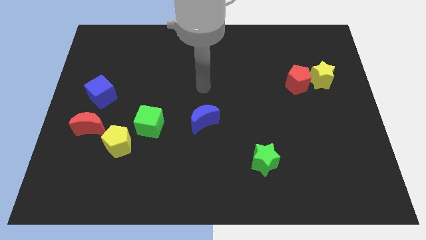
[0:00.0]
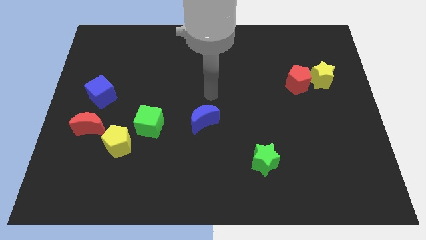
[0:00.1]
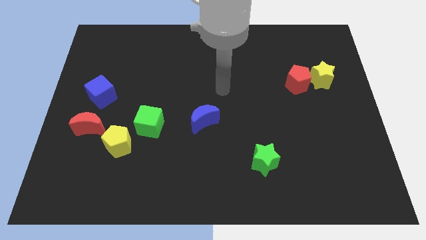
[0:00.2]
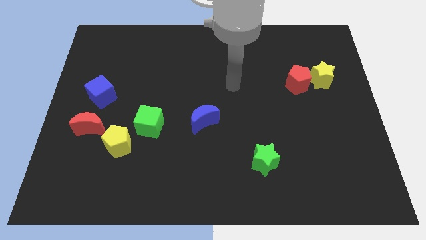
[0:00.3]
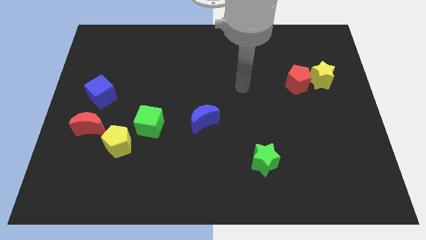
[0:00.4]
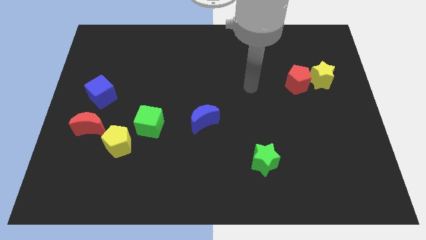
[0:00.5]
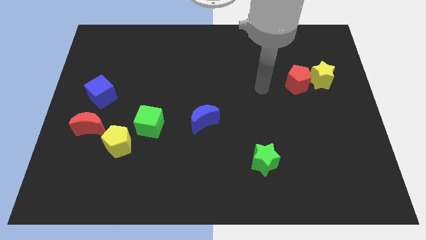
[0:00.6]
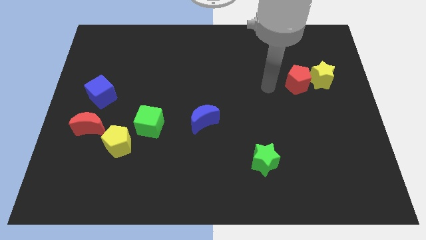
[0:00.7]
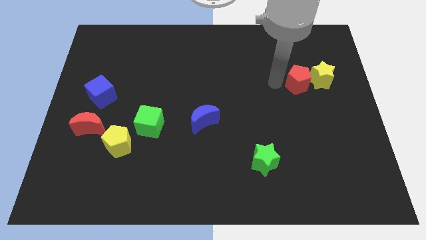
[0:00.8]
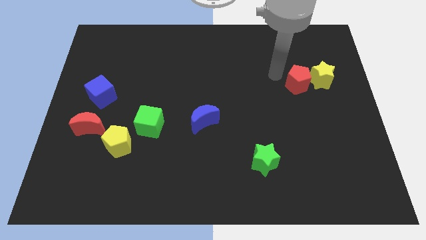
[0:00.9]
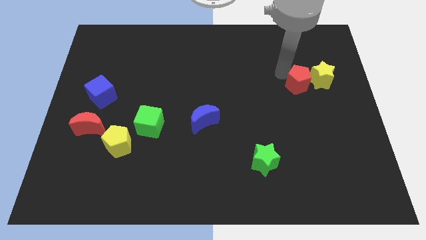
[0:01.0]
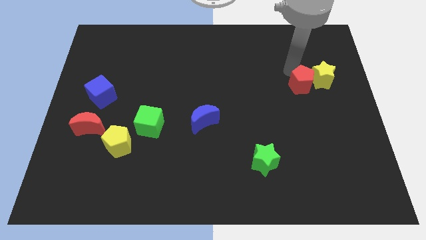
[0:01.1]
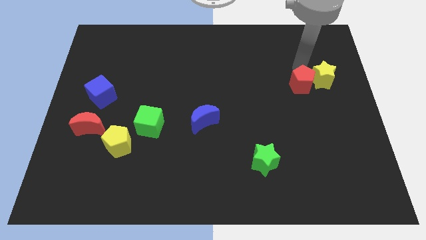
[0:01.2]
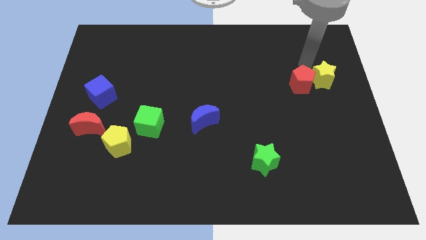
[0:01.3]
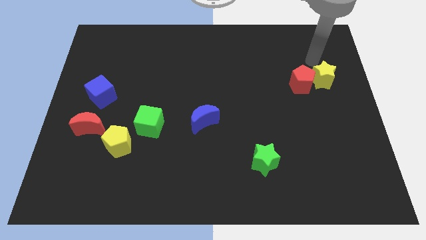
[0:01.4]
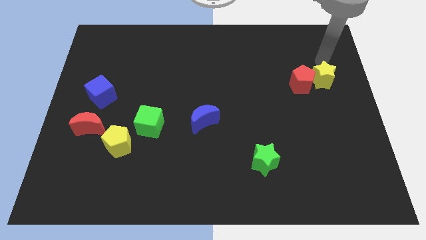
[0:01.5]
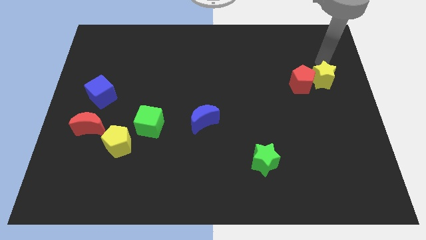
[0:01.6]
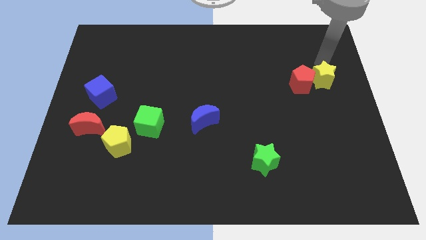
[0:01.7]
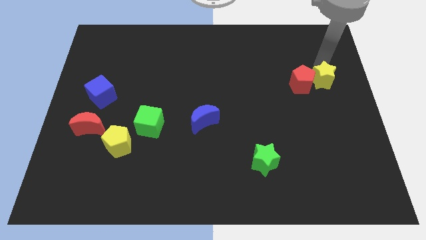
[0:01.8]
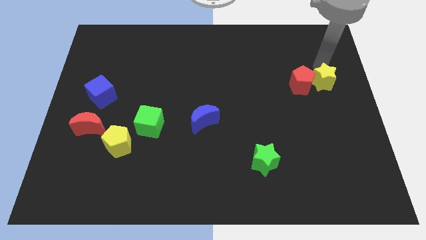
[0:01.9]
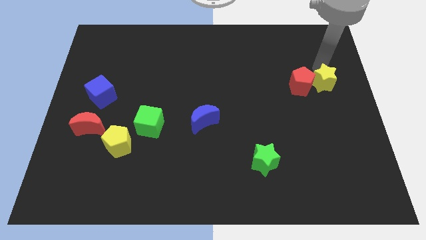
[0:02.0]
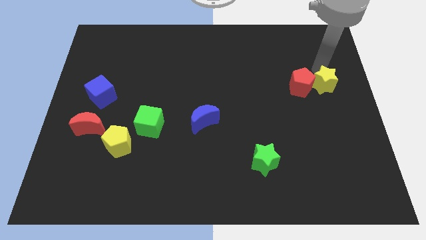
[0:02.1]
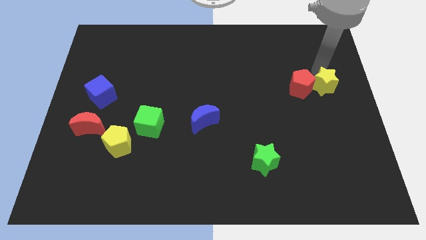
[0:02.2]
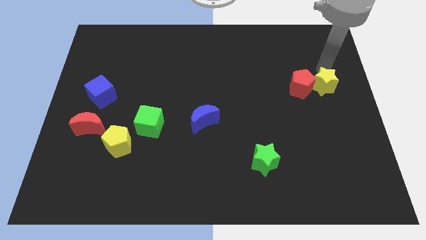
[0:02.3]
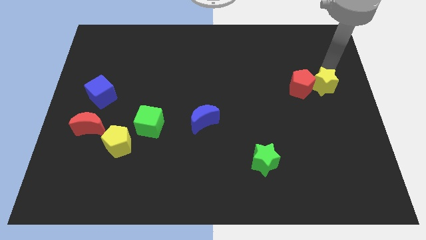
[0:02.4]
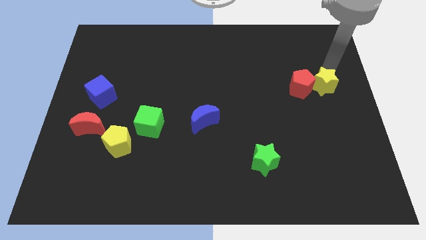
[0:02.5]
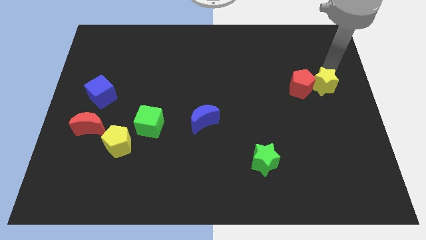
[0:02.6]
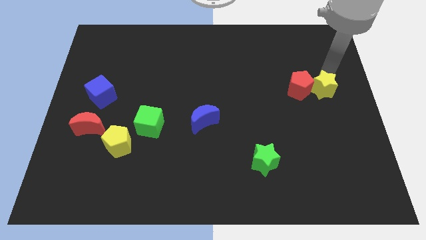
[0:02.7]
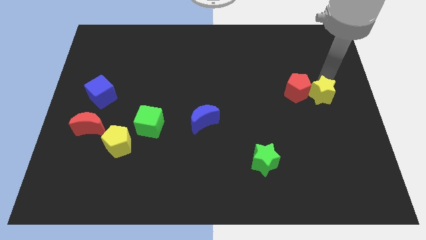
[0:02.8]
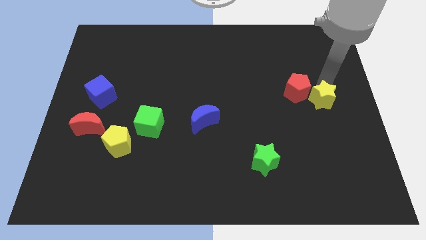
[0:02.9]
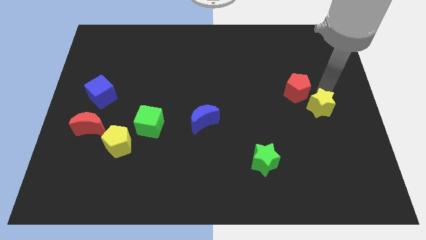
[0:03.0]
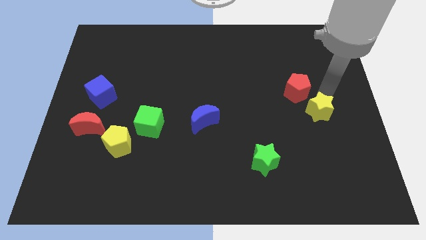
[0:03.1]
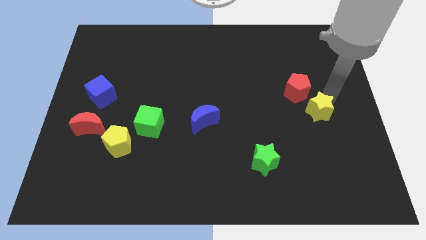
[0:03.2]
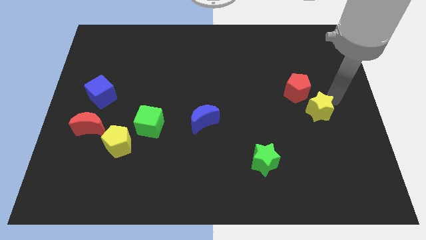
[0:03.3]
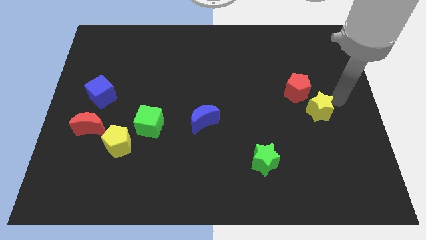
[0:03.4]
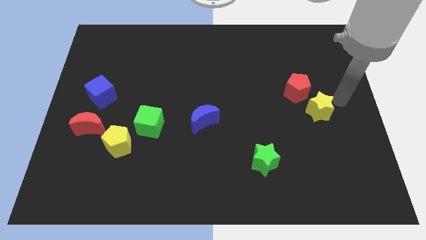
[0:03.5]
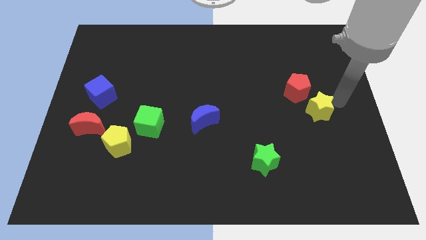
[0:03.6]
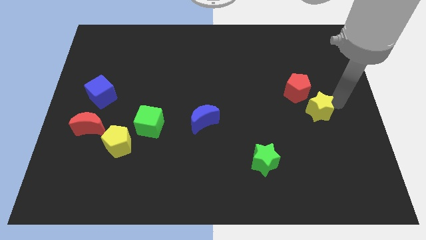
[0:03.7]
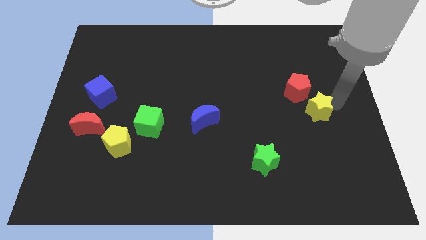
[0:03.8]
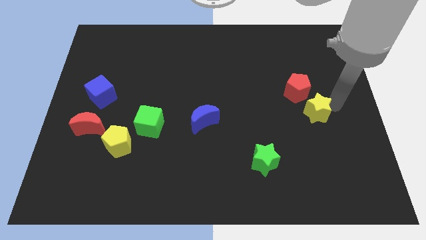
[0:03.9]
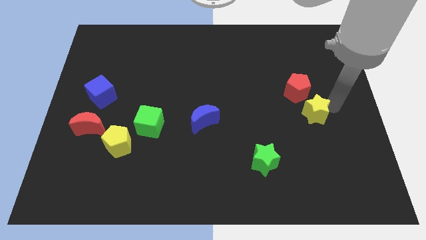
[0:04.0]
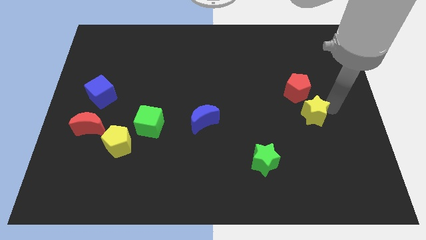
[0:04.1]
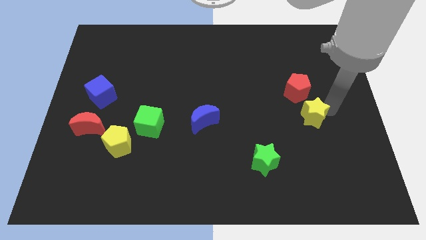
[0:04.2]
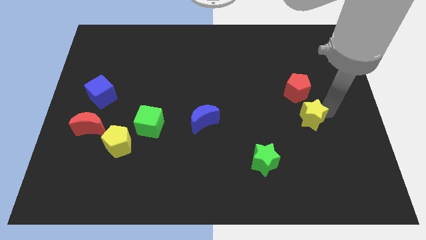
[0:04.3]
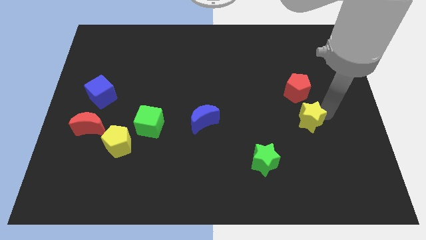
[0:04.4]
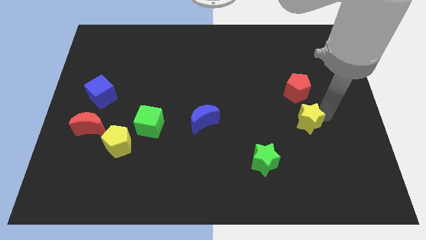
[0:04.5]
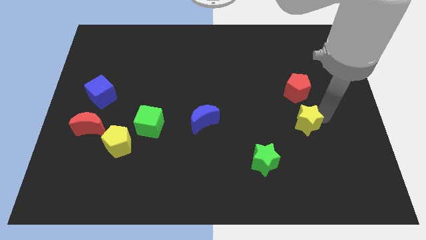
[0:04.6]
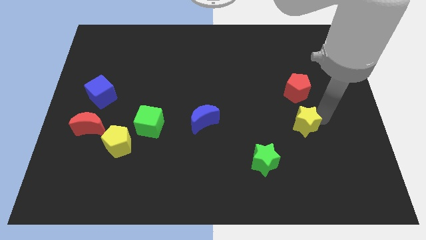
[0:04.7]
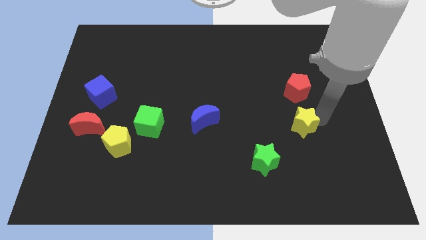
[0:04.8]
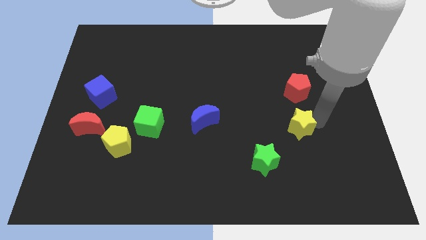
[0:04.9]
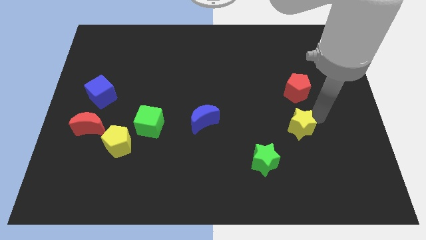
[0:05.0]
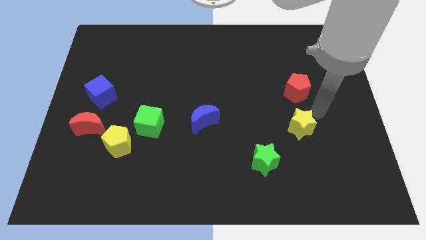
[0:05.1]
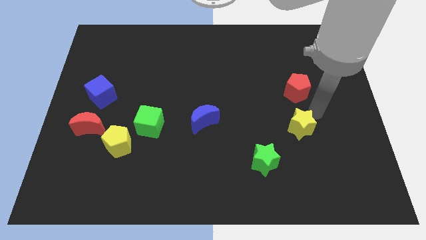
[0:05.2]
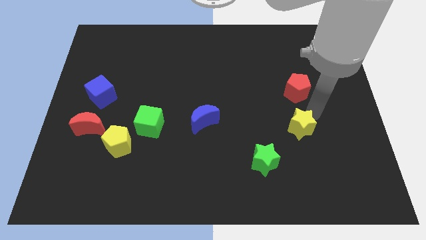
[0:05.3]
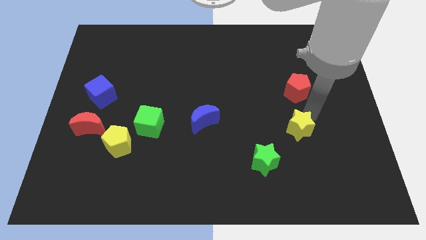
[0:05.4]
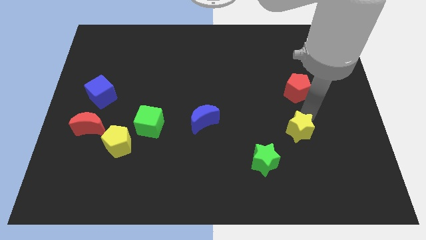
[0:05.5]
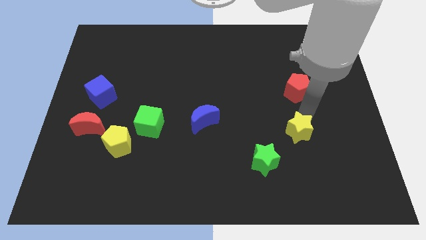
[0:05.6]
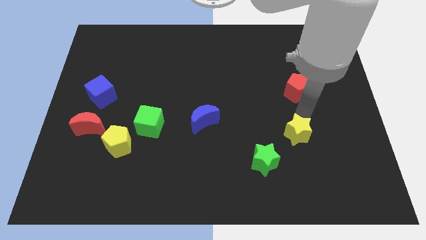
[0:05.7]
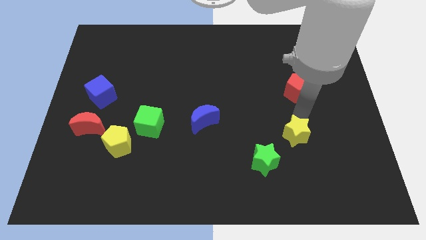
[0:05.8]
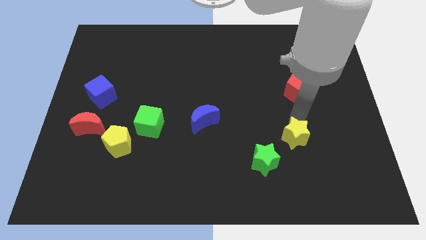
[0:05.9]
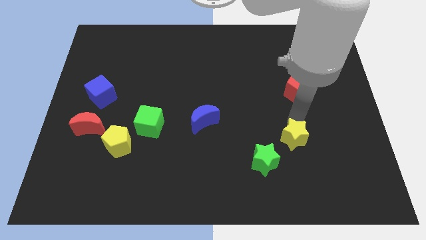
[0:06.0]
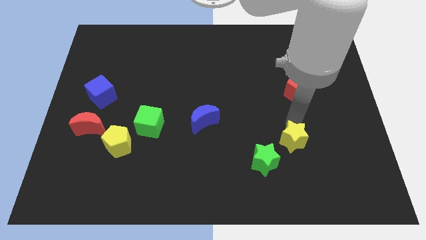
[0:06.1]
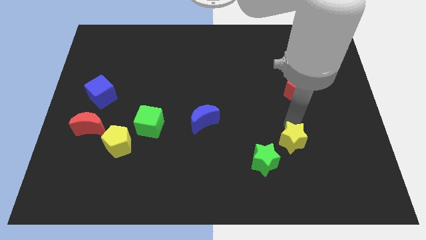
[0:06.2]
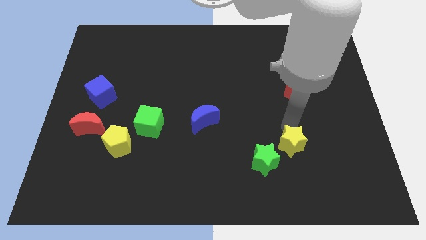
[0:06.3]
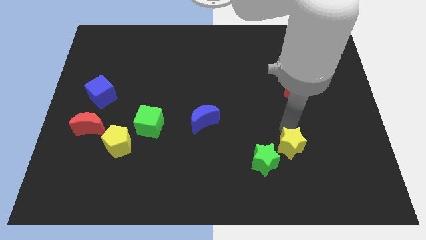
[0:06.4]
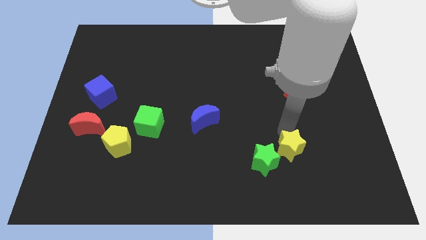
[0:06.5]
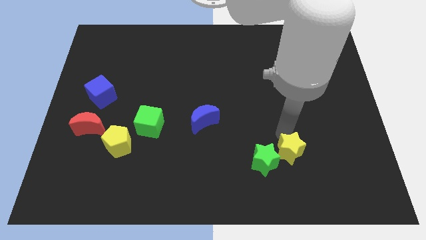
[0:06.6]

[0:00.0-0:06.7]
put the yellow star towards the green star
